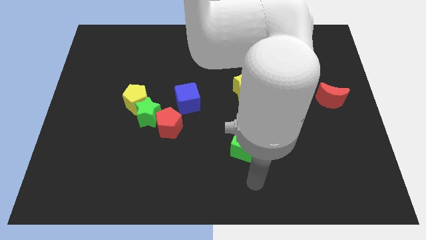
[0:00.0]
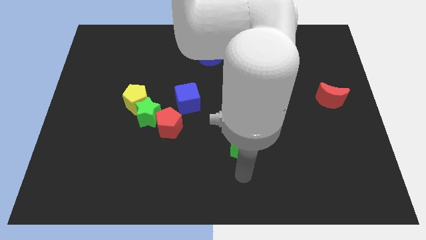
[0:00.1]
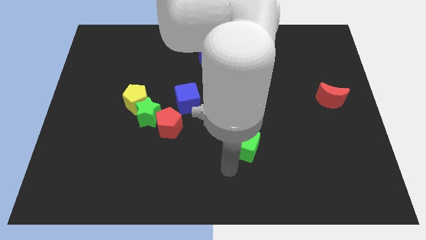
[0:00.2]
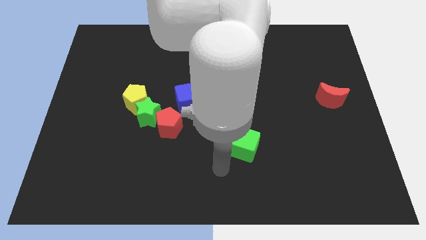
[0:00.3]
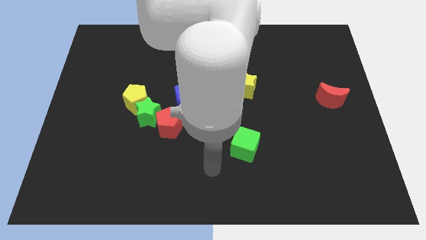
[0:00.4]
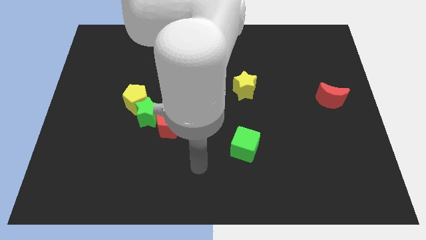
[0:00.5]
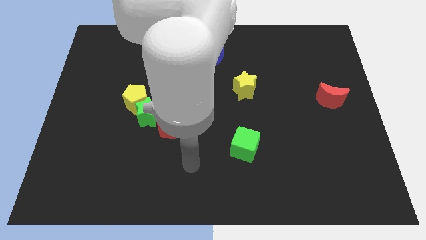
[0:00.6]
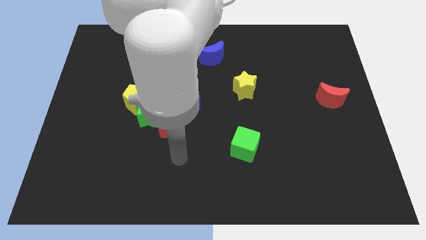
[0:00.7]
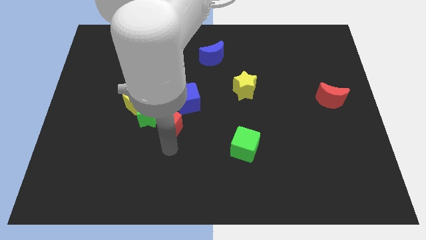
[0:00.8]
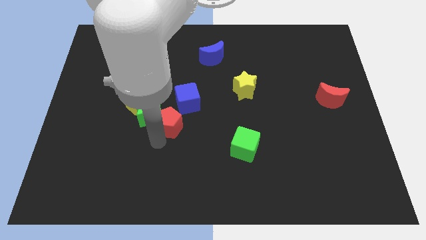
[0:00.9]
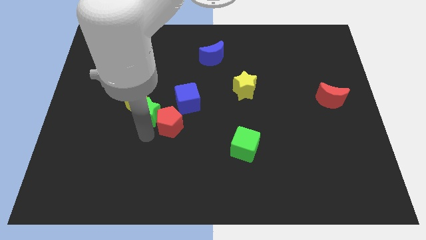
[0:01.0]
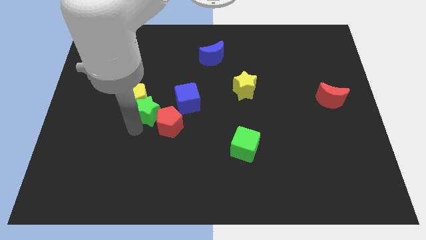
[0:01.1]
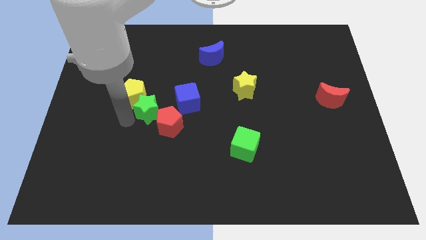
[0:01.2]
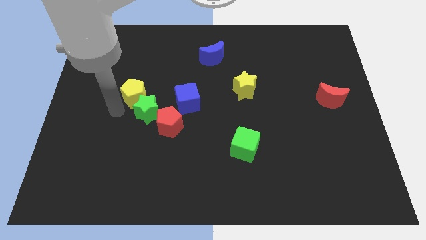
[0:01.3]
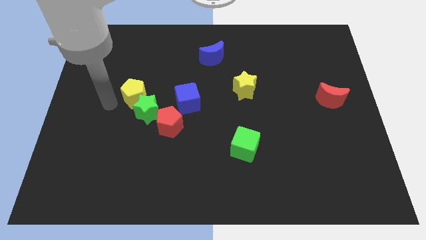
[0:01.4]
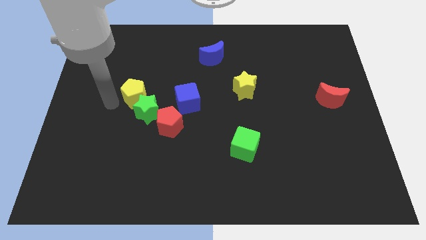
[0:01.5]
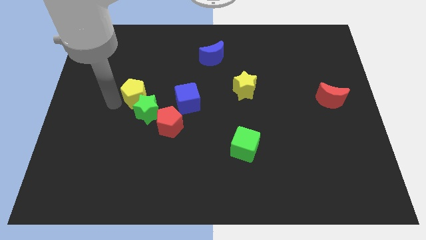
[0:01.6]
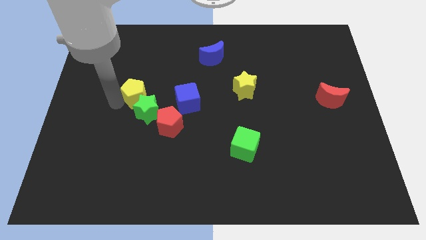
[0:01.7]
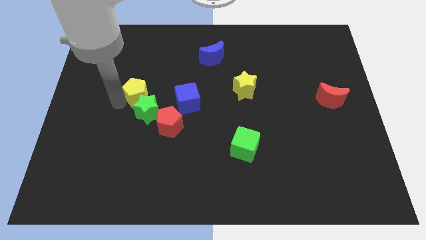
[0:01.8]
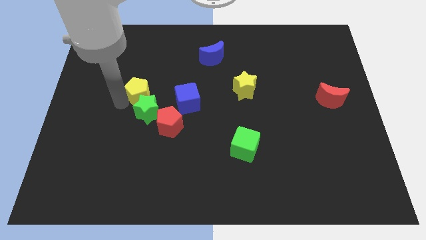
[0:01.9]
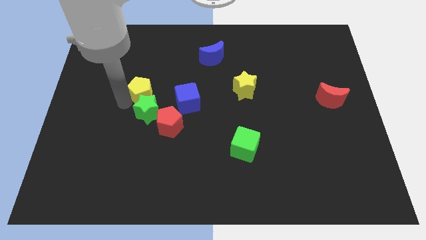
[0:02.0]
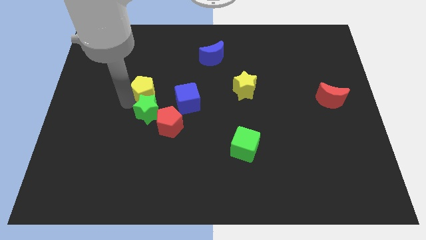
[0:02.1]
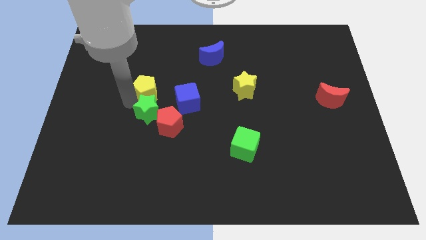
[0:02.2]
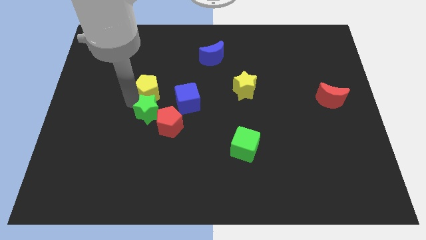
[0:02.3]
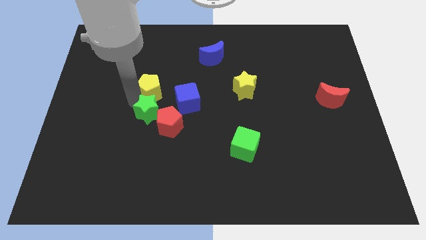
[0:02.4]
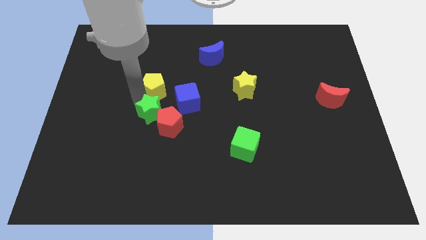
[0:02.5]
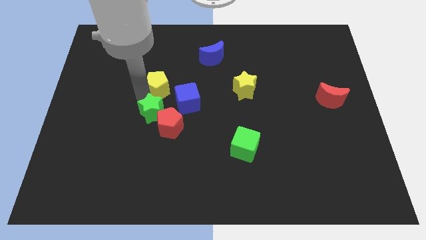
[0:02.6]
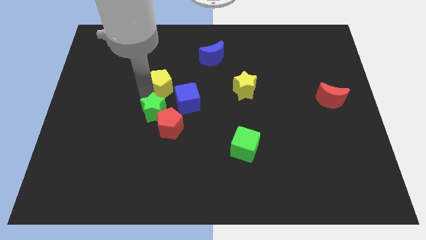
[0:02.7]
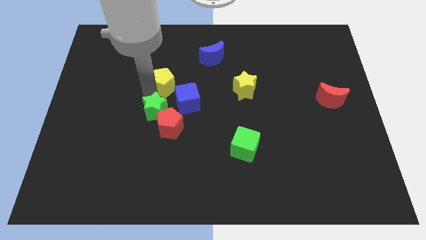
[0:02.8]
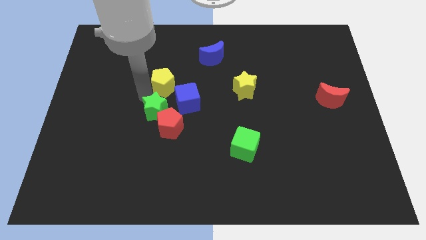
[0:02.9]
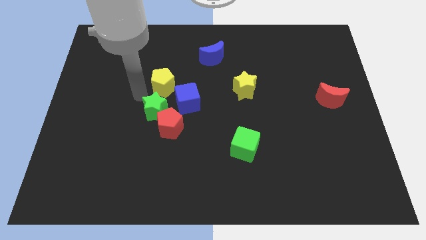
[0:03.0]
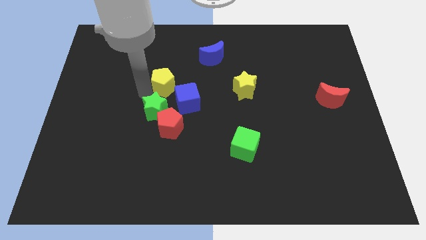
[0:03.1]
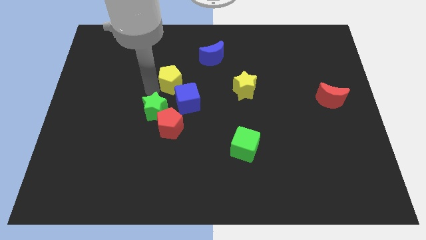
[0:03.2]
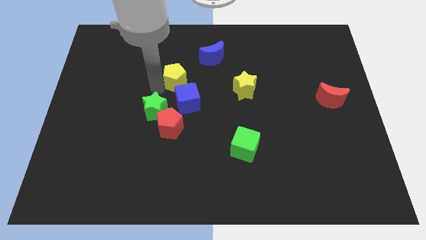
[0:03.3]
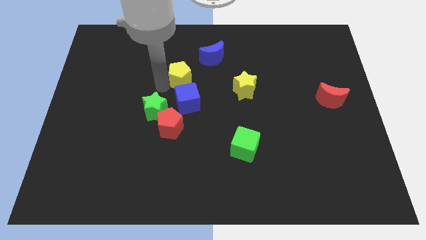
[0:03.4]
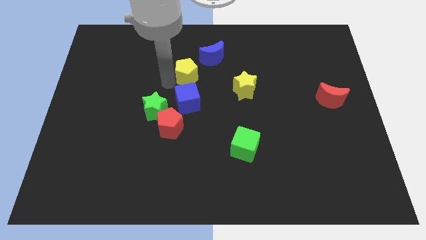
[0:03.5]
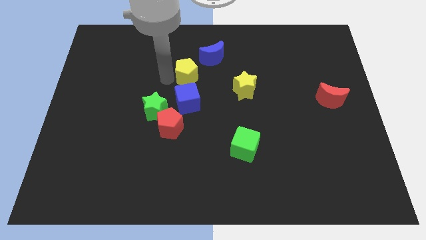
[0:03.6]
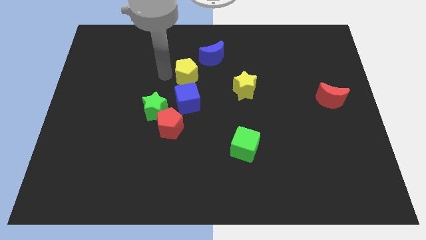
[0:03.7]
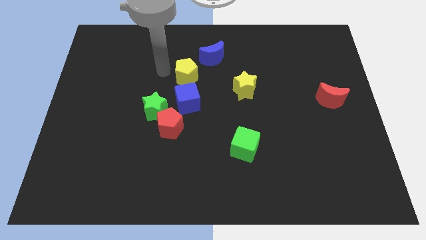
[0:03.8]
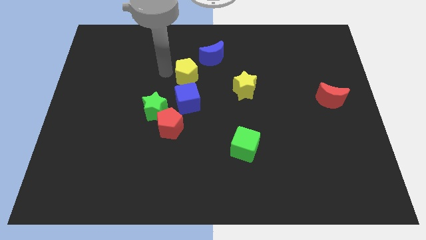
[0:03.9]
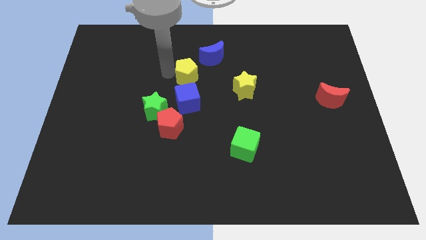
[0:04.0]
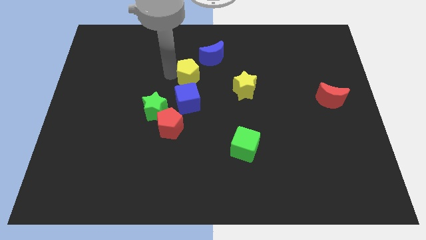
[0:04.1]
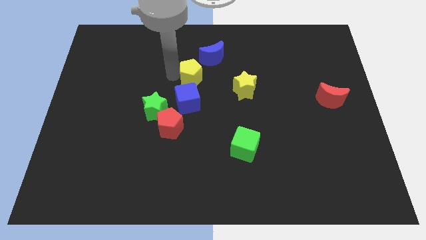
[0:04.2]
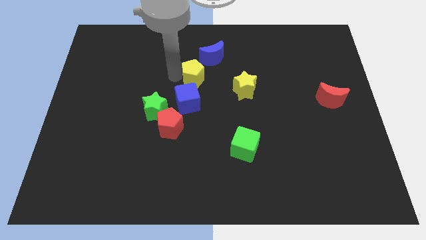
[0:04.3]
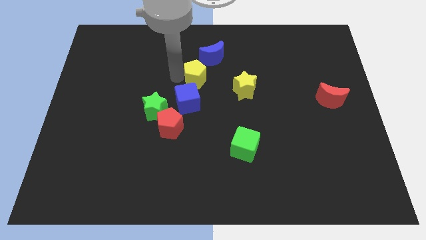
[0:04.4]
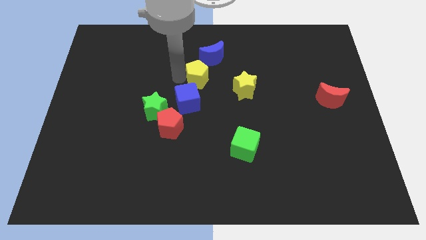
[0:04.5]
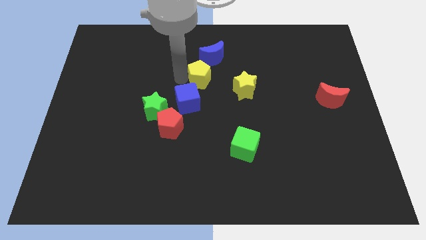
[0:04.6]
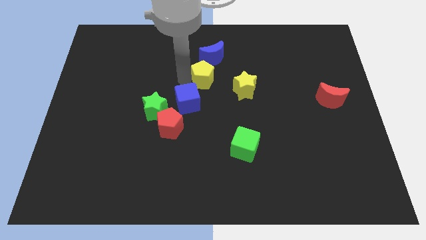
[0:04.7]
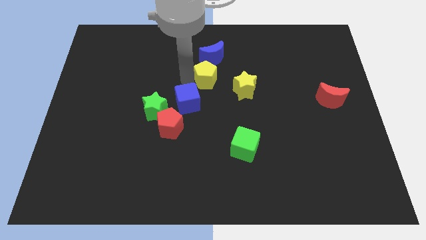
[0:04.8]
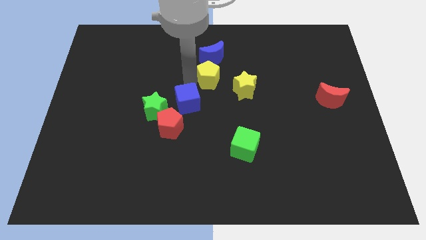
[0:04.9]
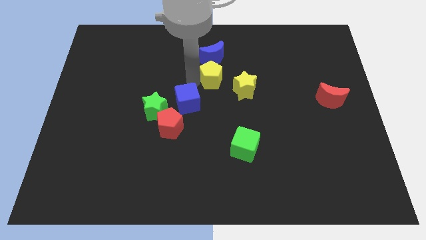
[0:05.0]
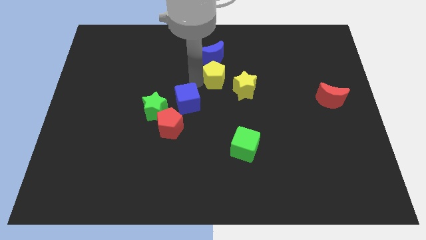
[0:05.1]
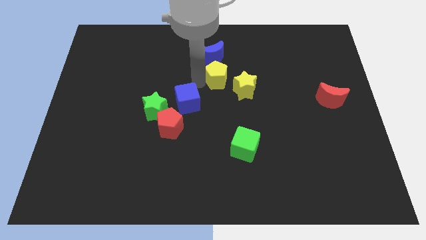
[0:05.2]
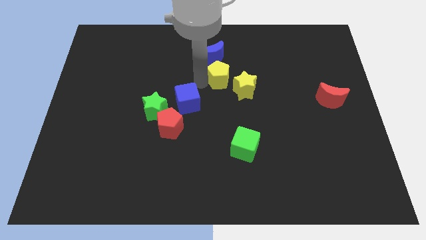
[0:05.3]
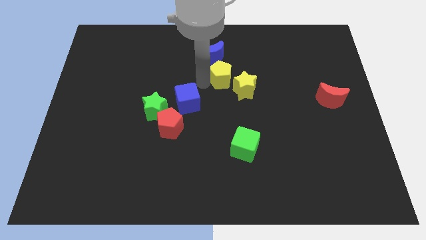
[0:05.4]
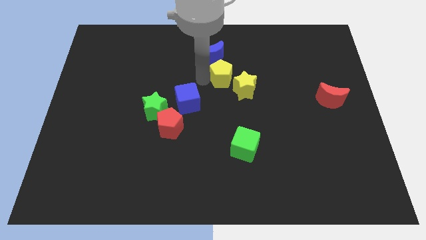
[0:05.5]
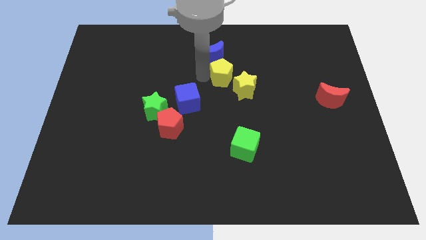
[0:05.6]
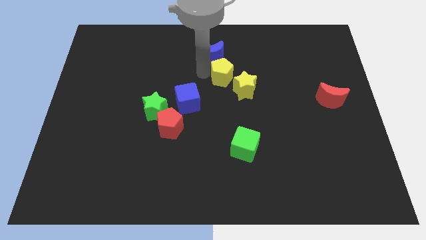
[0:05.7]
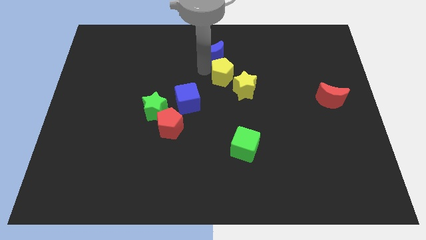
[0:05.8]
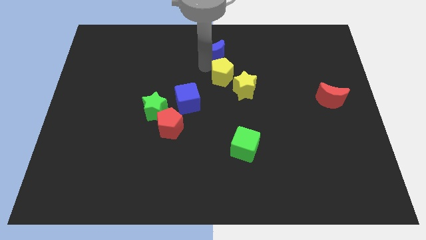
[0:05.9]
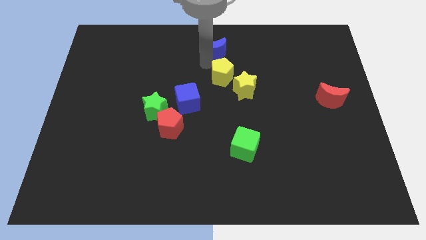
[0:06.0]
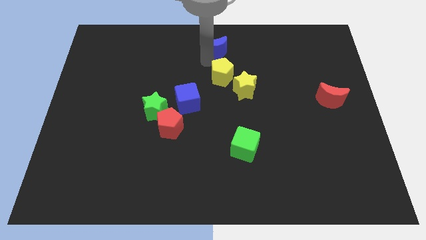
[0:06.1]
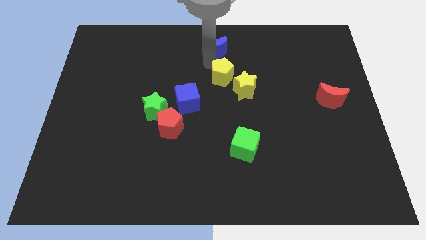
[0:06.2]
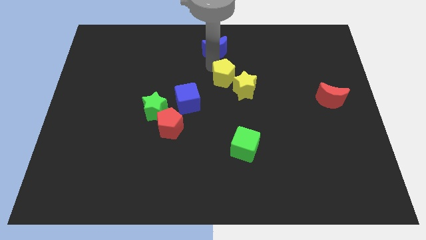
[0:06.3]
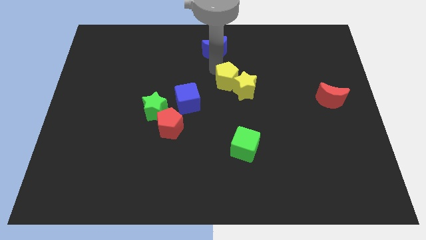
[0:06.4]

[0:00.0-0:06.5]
move the yellow pentagon towards the yellow star

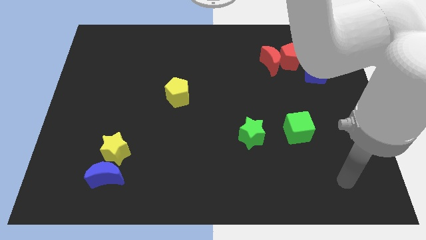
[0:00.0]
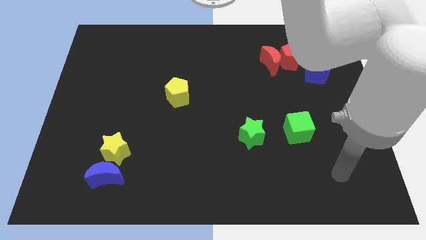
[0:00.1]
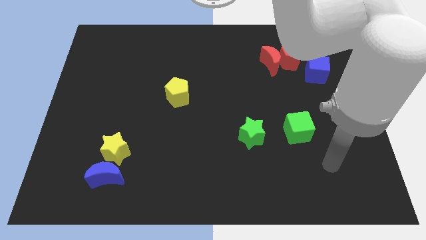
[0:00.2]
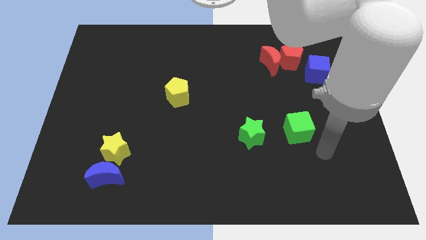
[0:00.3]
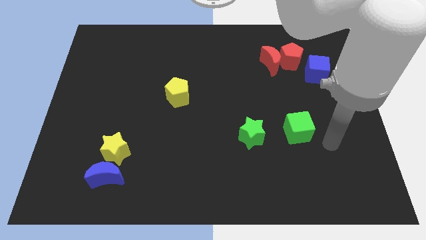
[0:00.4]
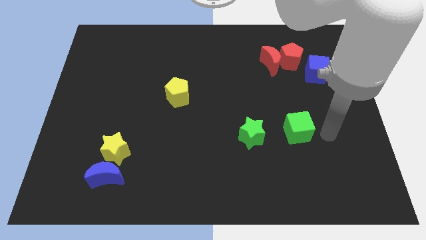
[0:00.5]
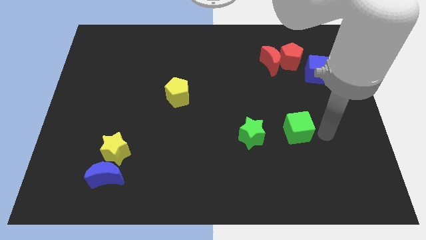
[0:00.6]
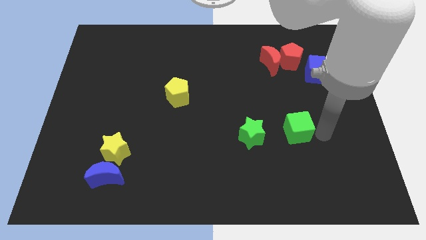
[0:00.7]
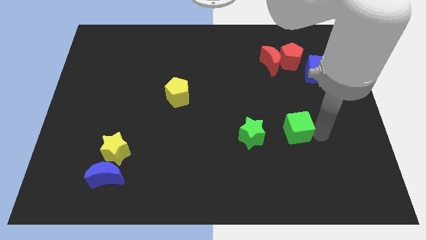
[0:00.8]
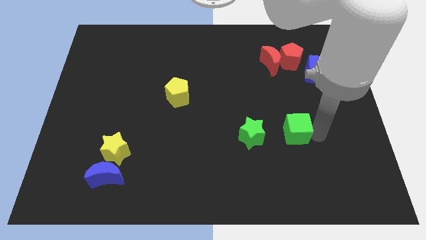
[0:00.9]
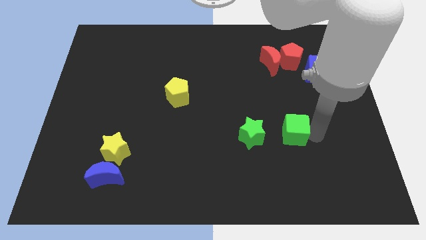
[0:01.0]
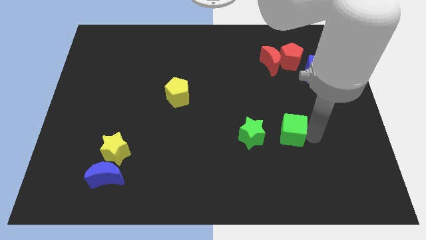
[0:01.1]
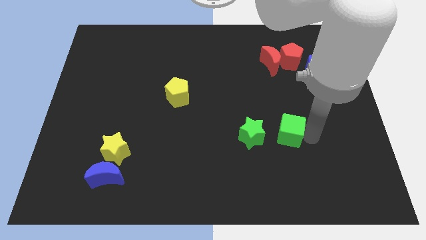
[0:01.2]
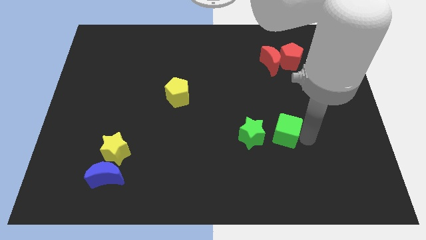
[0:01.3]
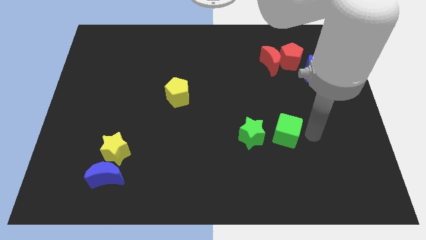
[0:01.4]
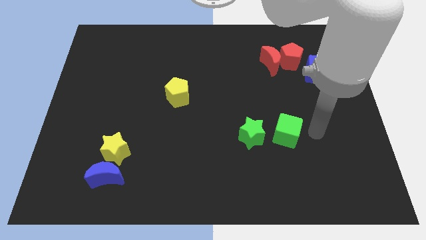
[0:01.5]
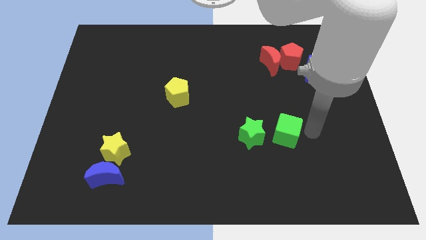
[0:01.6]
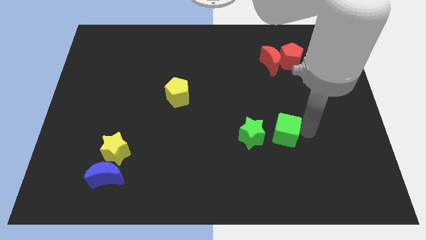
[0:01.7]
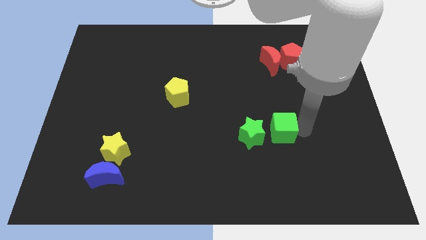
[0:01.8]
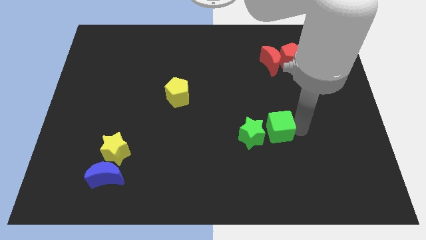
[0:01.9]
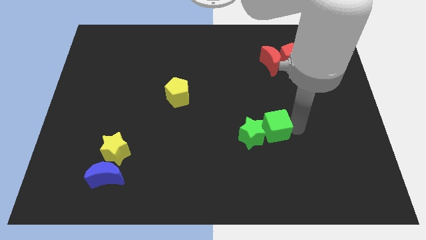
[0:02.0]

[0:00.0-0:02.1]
slide the green cube to the green star
